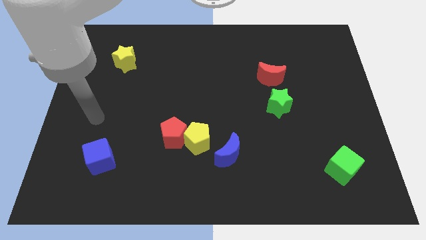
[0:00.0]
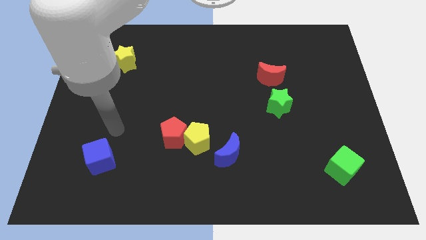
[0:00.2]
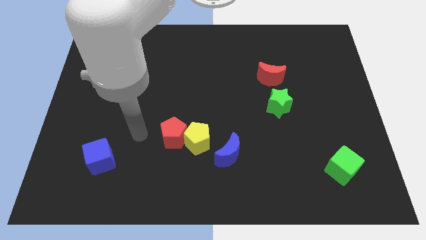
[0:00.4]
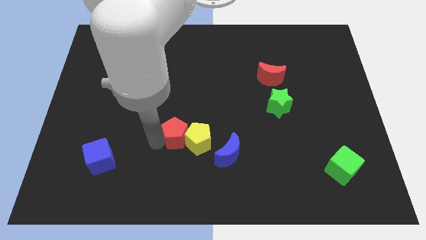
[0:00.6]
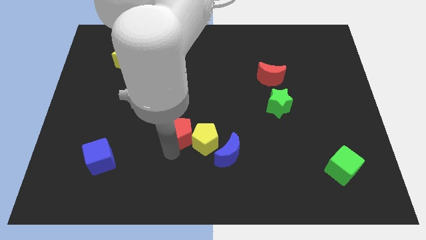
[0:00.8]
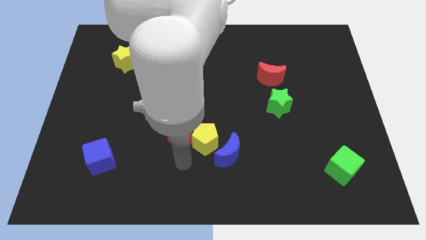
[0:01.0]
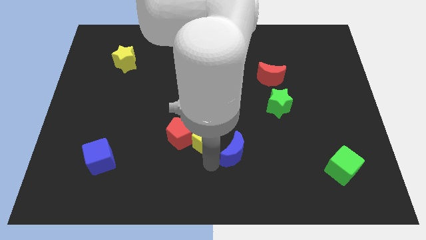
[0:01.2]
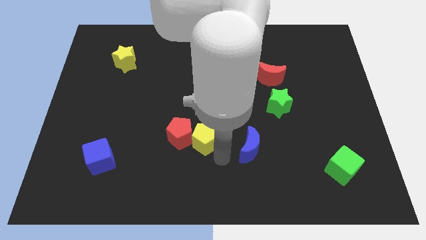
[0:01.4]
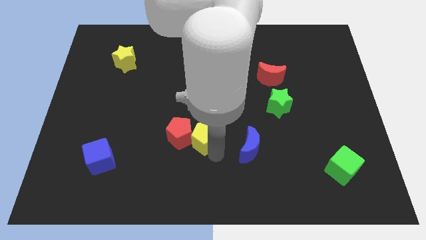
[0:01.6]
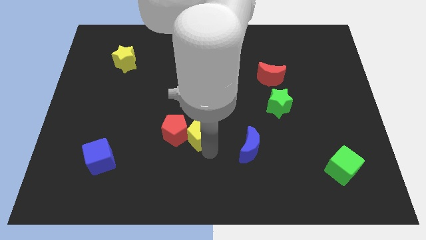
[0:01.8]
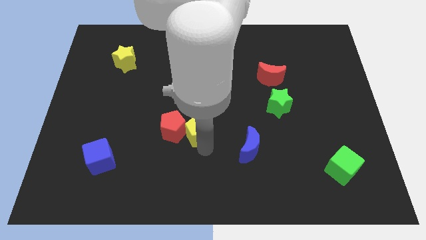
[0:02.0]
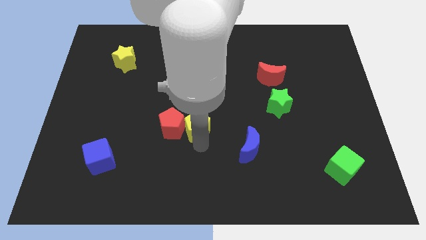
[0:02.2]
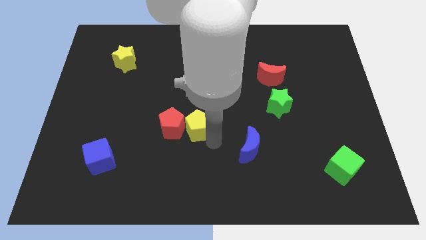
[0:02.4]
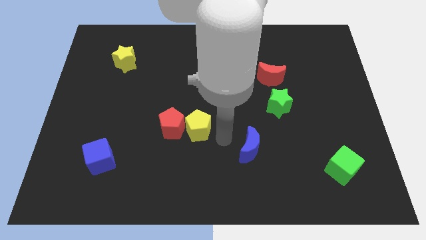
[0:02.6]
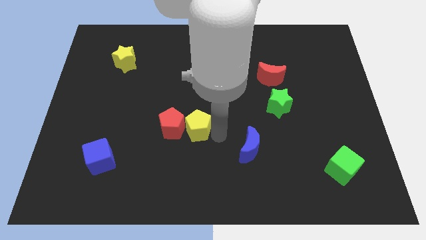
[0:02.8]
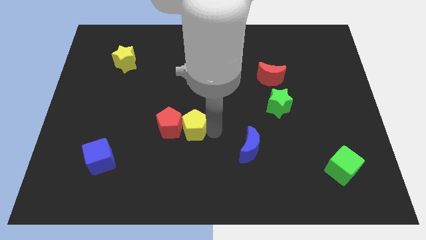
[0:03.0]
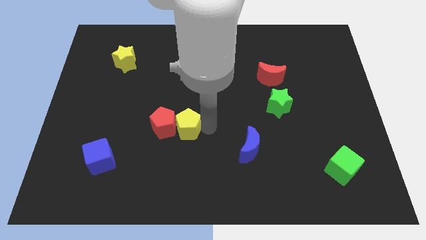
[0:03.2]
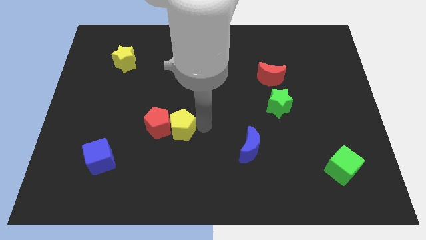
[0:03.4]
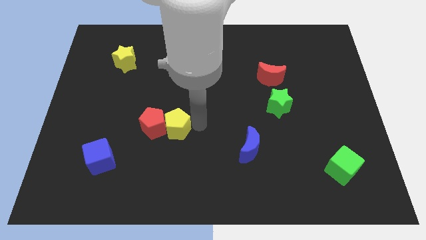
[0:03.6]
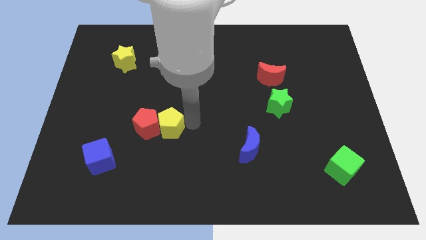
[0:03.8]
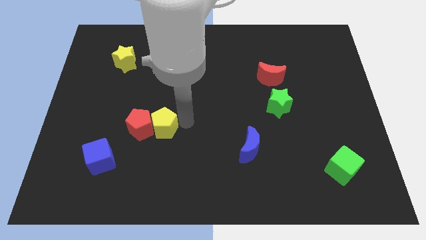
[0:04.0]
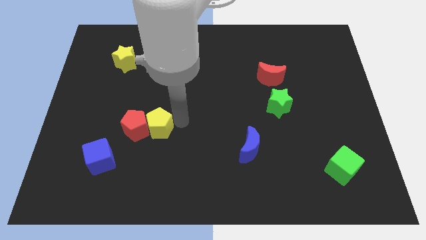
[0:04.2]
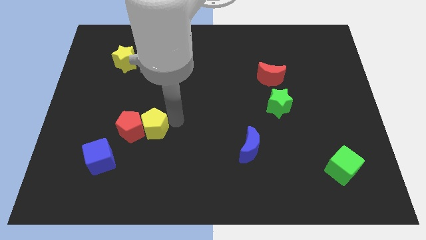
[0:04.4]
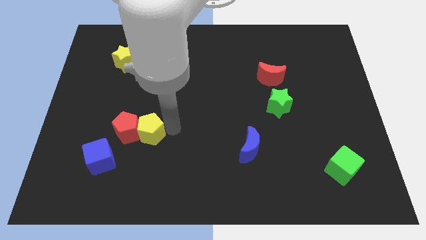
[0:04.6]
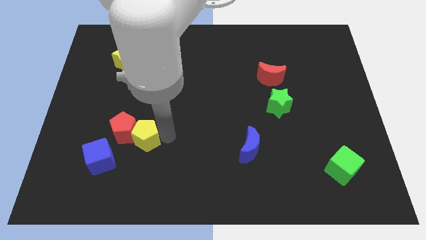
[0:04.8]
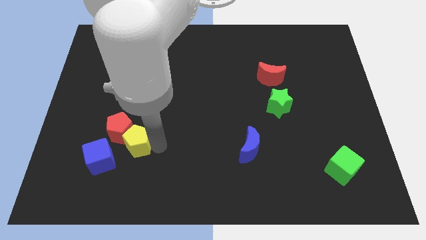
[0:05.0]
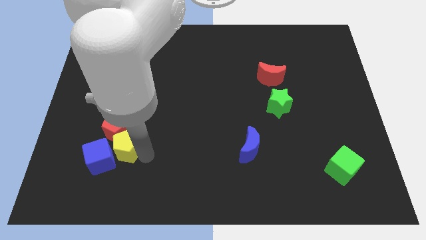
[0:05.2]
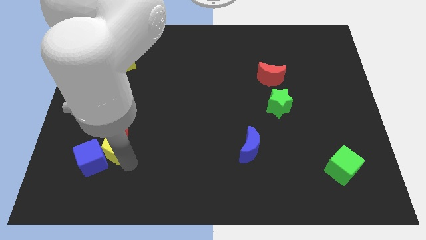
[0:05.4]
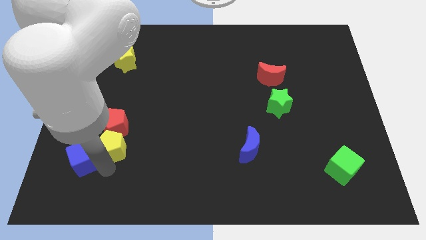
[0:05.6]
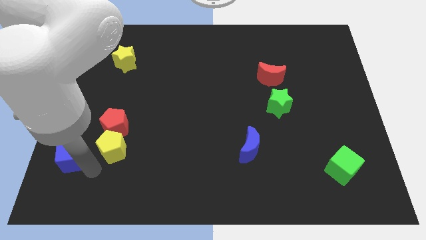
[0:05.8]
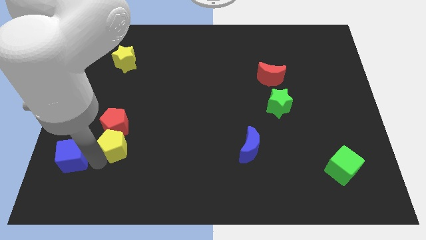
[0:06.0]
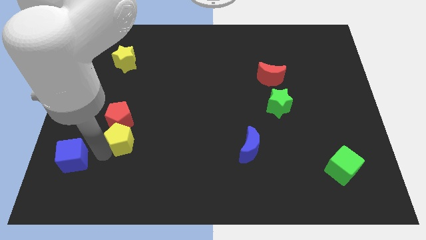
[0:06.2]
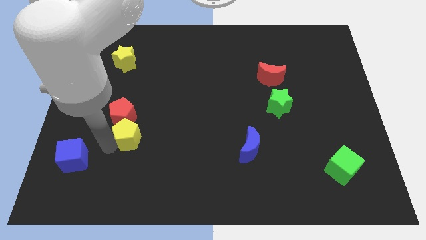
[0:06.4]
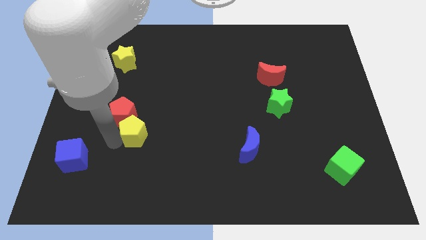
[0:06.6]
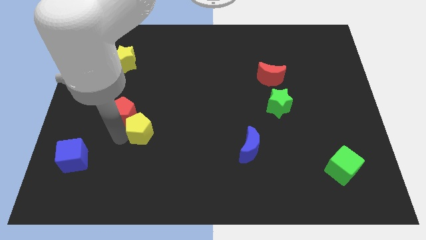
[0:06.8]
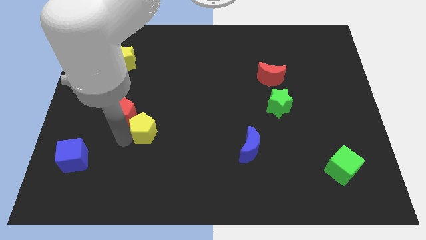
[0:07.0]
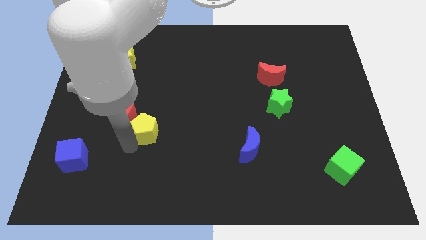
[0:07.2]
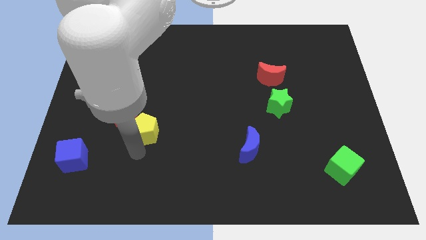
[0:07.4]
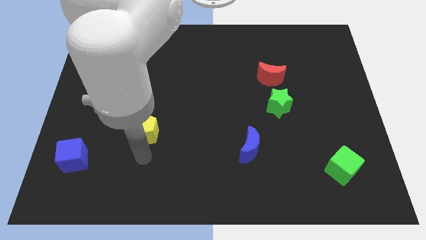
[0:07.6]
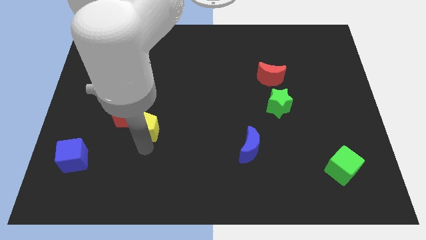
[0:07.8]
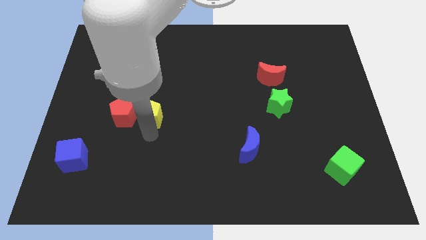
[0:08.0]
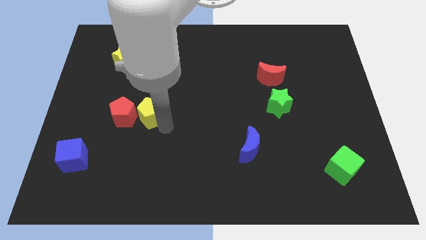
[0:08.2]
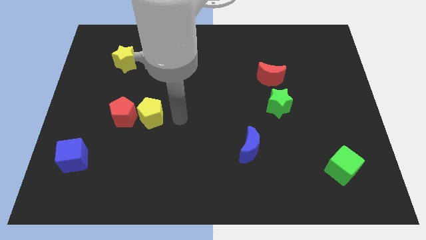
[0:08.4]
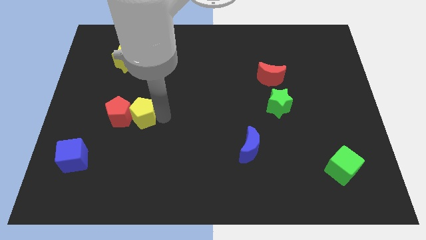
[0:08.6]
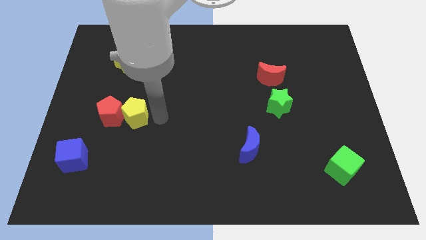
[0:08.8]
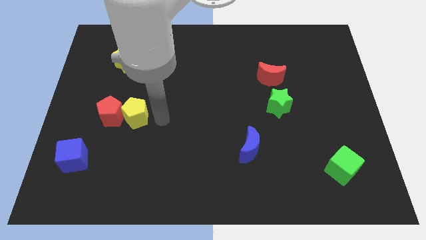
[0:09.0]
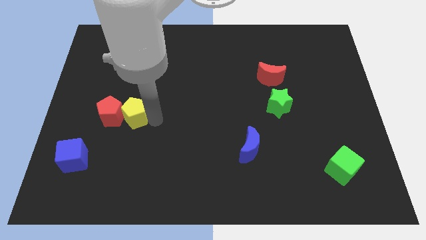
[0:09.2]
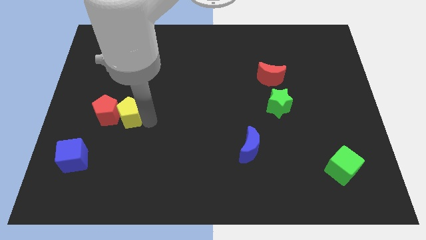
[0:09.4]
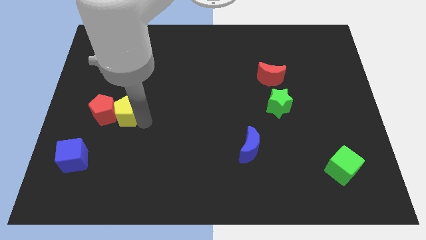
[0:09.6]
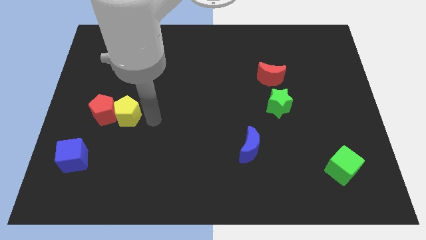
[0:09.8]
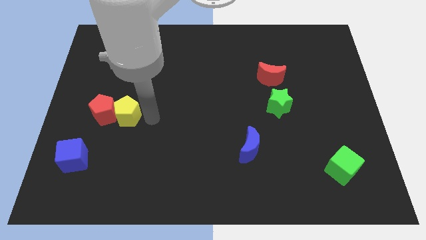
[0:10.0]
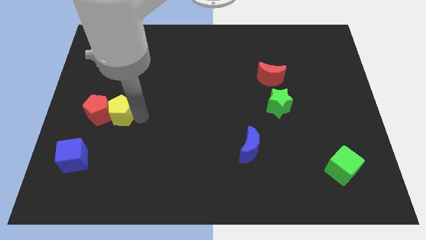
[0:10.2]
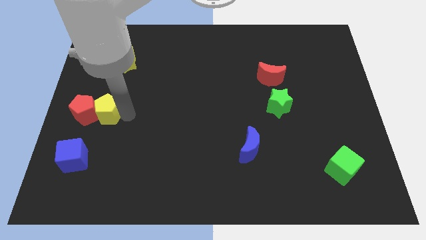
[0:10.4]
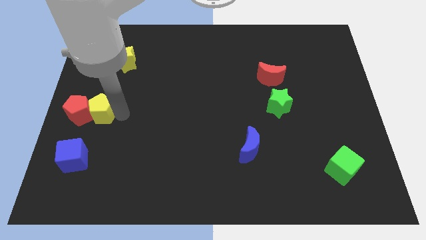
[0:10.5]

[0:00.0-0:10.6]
slide the yellow pentagon to the left side

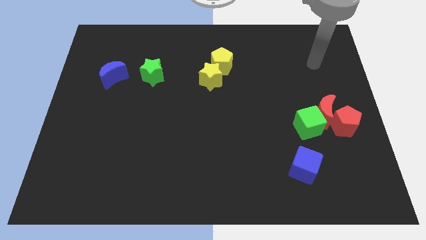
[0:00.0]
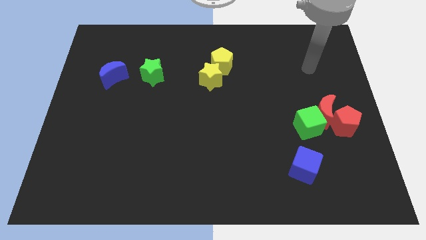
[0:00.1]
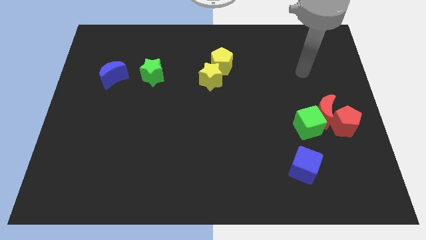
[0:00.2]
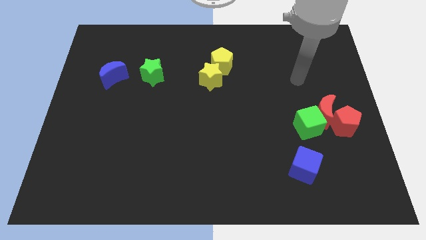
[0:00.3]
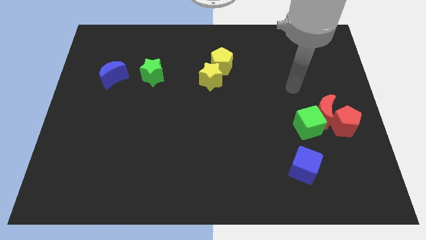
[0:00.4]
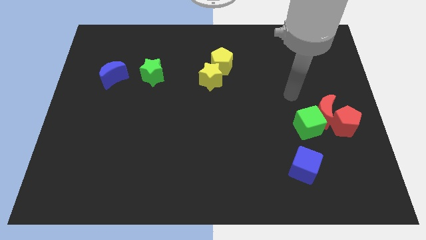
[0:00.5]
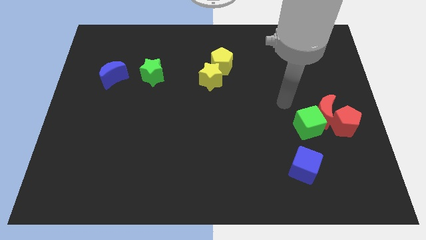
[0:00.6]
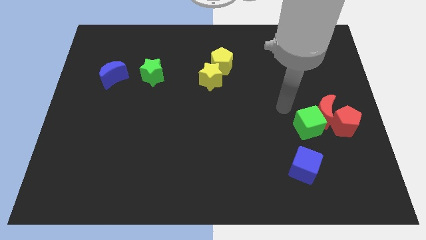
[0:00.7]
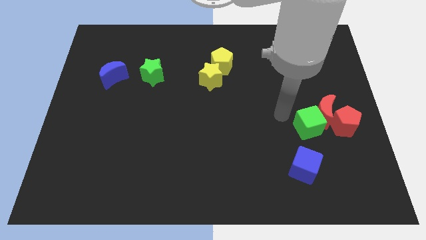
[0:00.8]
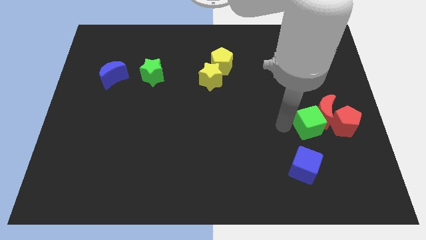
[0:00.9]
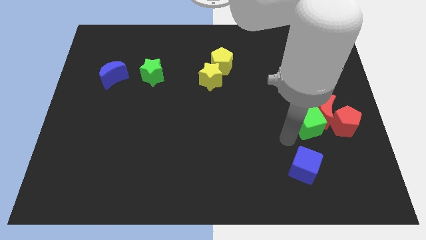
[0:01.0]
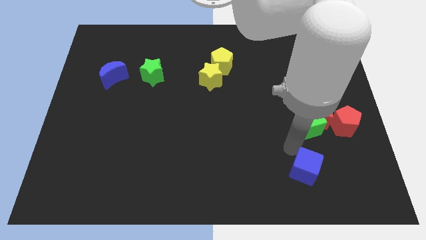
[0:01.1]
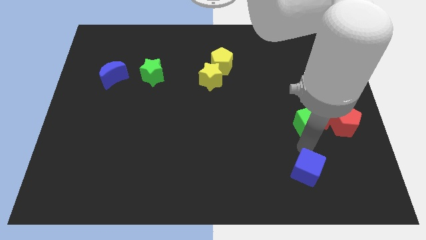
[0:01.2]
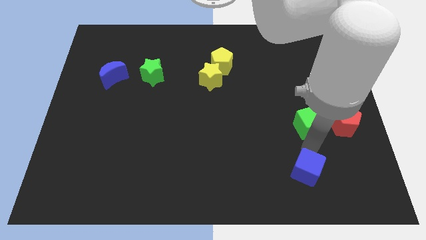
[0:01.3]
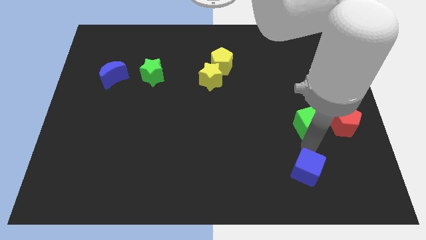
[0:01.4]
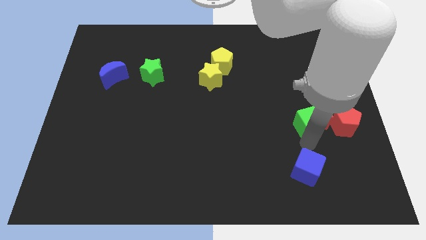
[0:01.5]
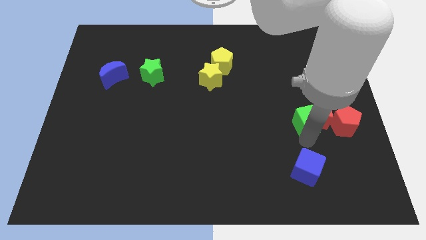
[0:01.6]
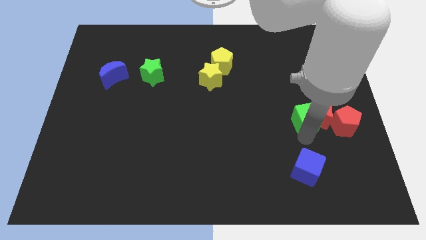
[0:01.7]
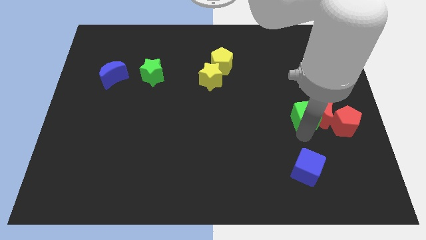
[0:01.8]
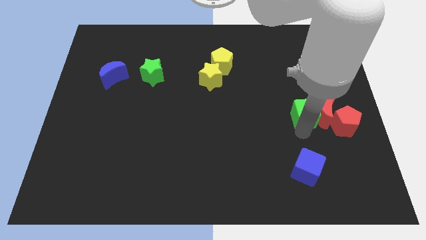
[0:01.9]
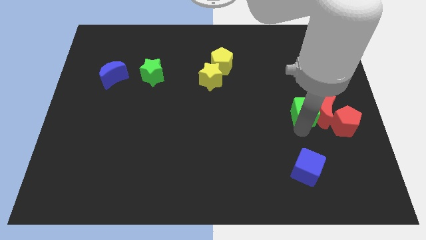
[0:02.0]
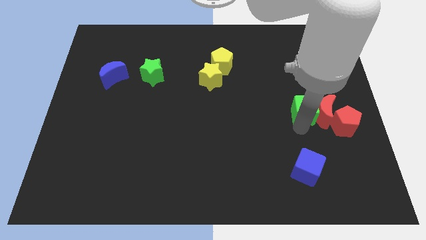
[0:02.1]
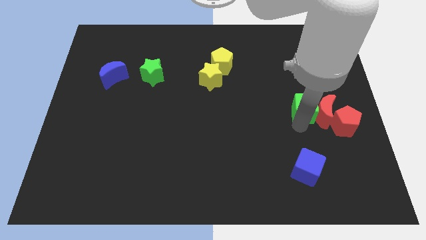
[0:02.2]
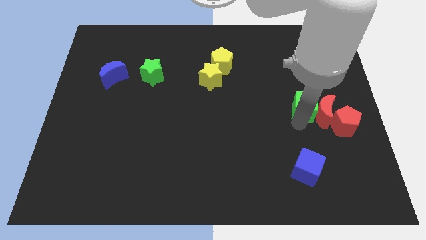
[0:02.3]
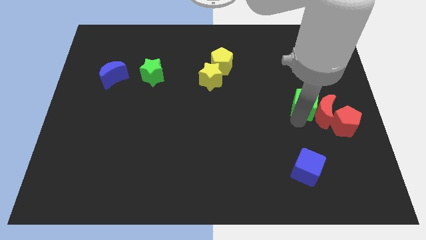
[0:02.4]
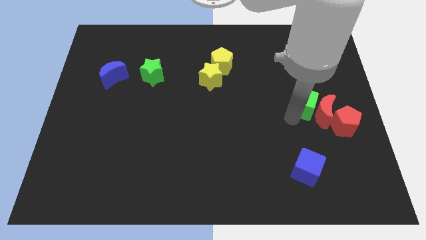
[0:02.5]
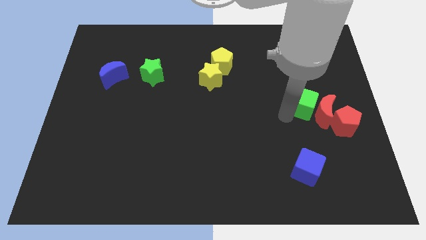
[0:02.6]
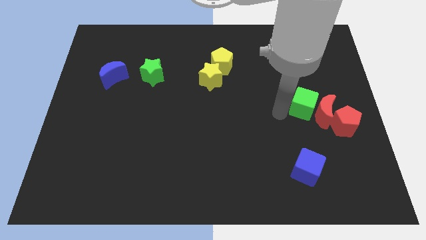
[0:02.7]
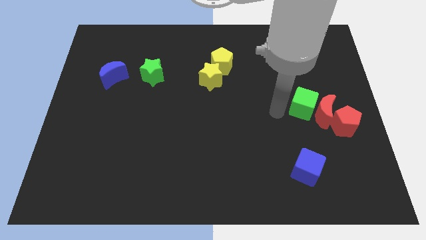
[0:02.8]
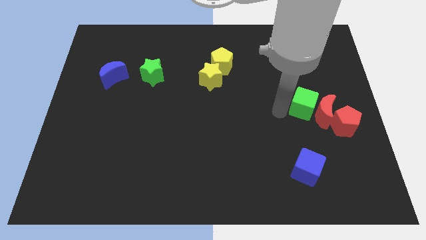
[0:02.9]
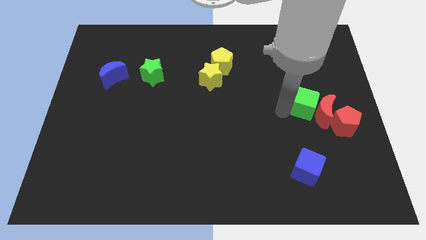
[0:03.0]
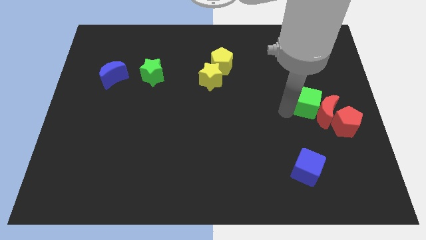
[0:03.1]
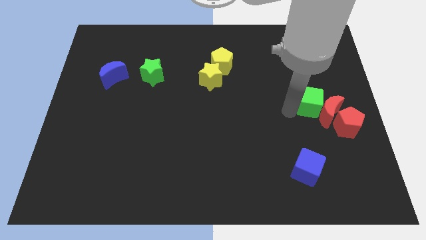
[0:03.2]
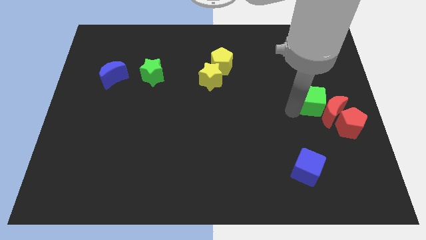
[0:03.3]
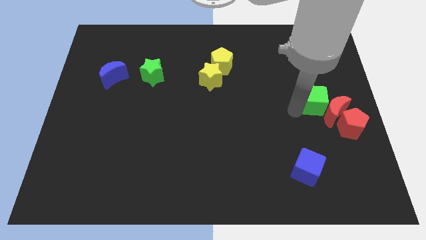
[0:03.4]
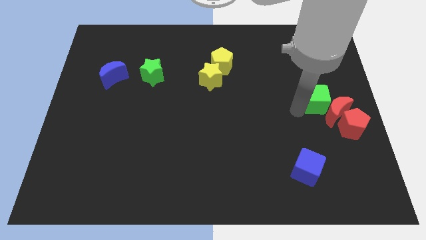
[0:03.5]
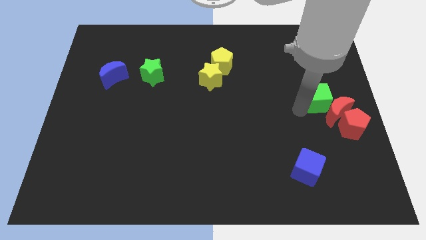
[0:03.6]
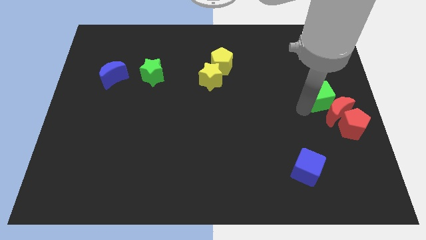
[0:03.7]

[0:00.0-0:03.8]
slide the green cube to the center right
